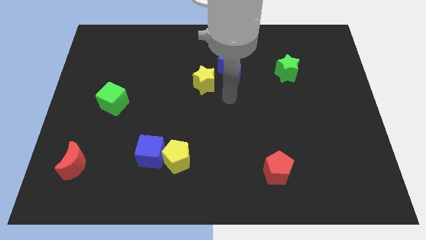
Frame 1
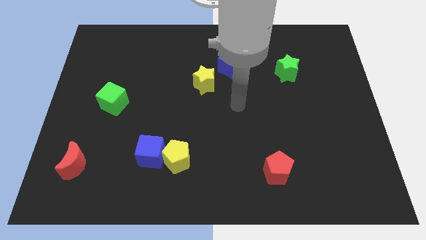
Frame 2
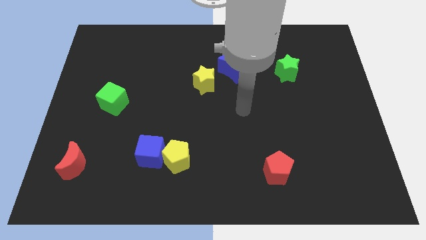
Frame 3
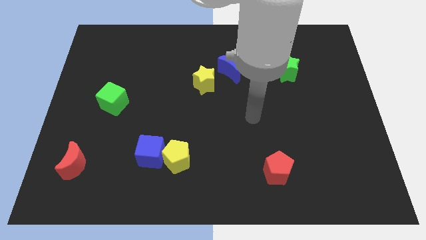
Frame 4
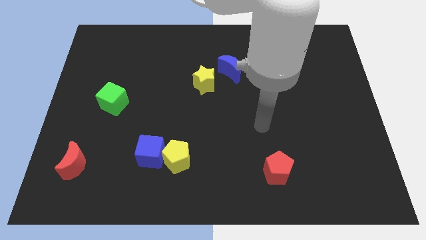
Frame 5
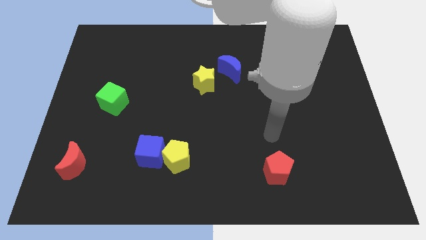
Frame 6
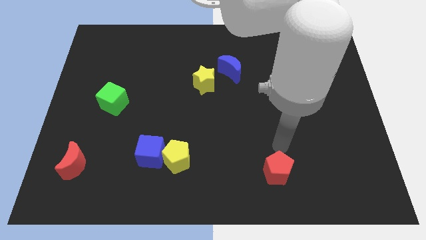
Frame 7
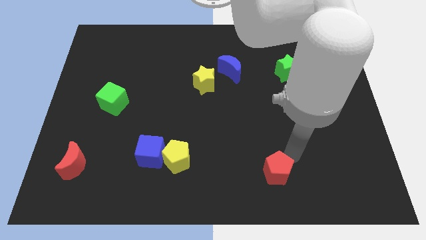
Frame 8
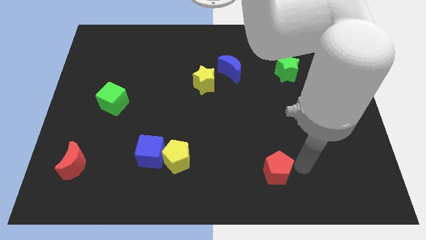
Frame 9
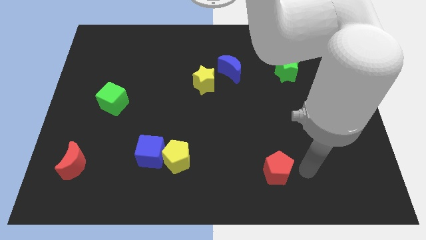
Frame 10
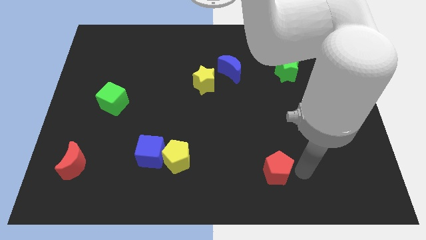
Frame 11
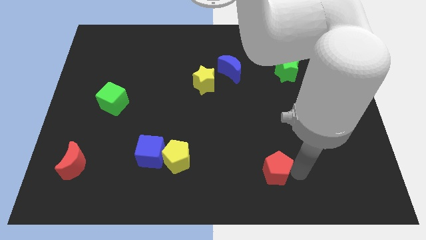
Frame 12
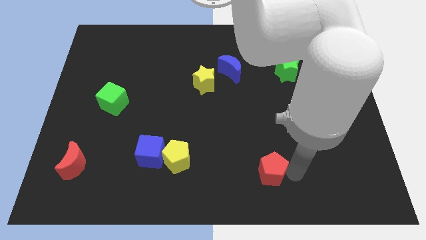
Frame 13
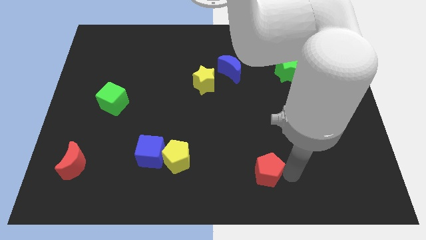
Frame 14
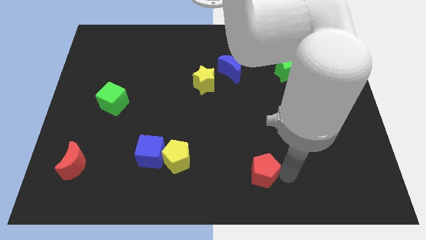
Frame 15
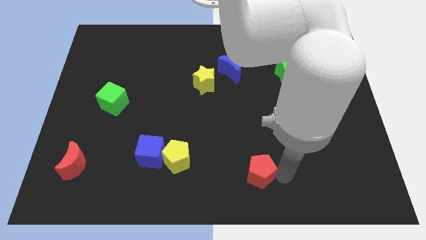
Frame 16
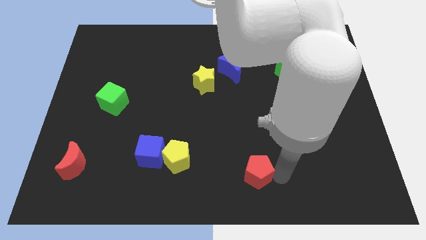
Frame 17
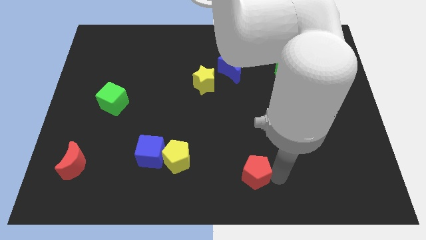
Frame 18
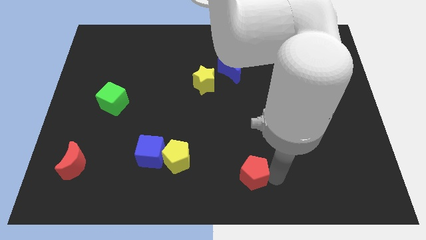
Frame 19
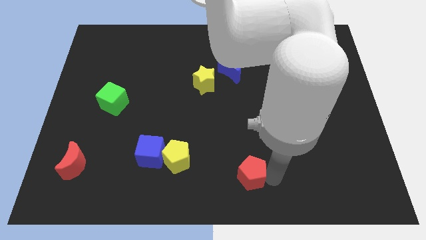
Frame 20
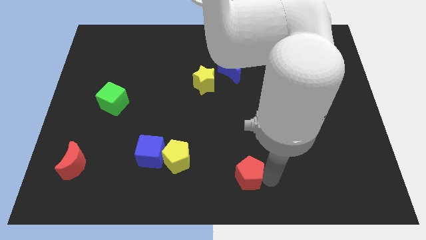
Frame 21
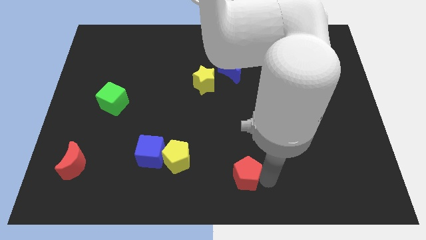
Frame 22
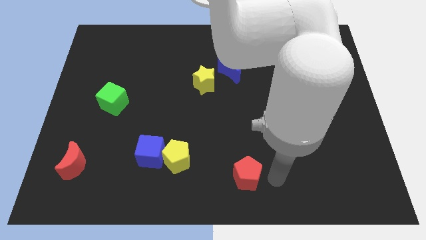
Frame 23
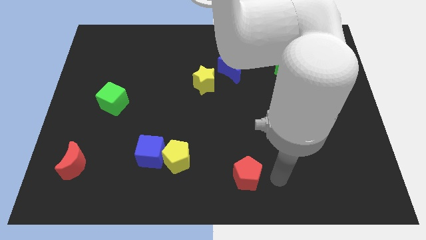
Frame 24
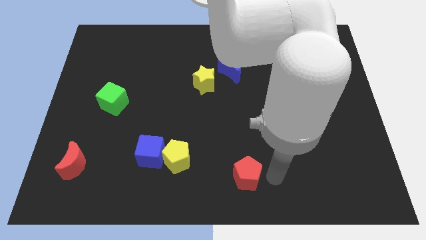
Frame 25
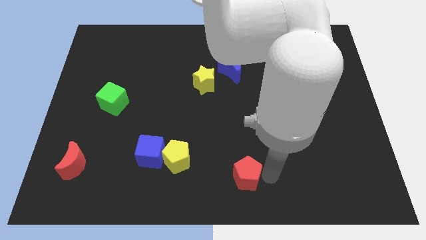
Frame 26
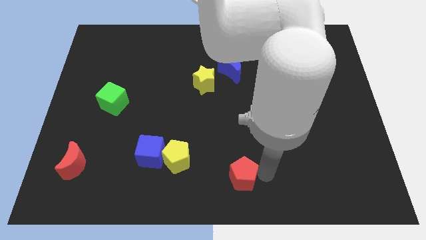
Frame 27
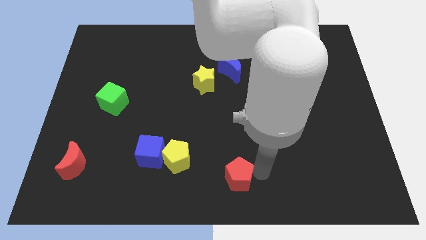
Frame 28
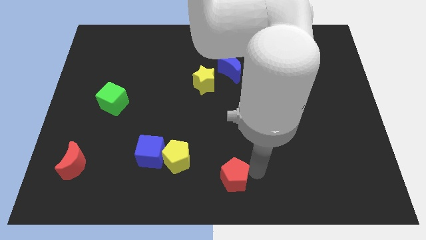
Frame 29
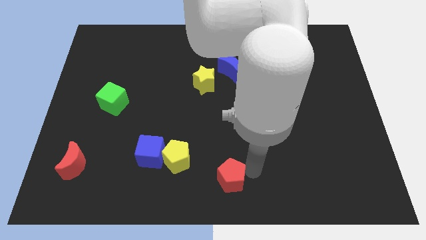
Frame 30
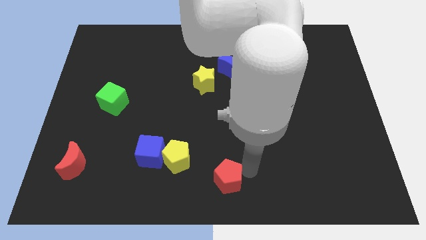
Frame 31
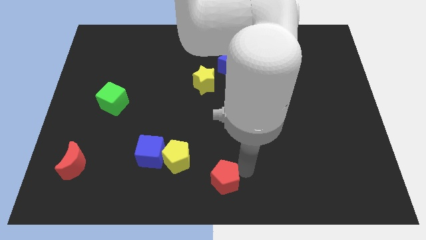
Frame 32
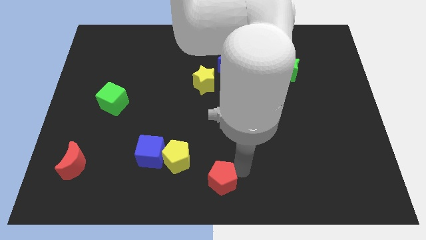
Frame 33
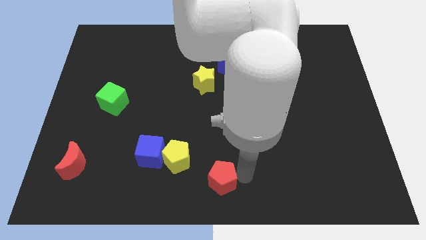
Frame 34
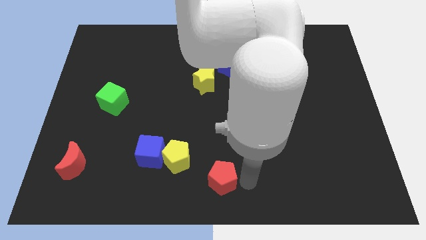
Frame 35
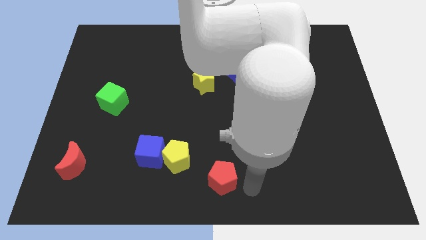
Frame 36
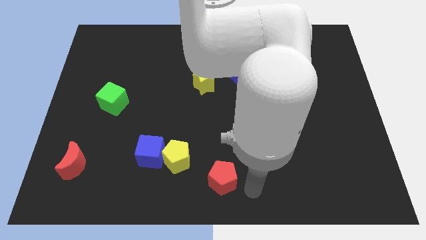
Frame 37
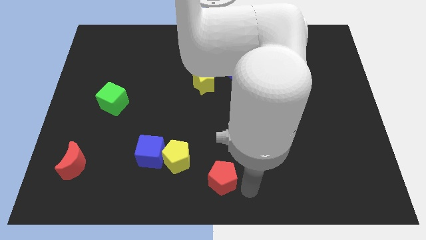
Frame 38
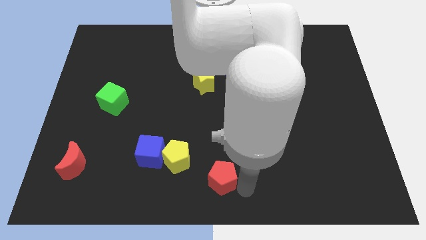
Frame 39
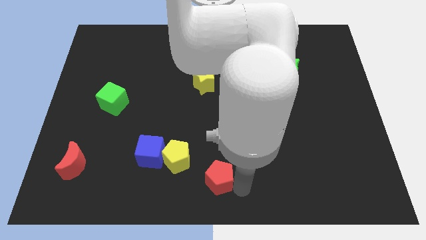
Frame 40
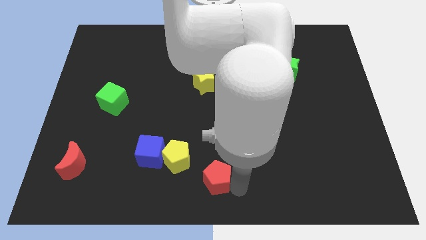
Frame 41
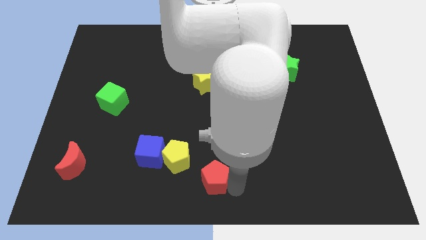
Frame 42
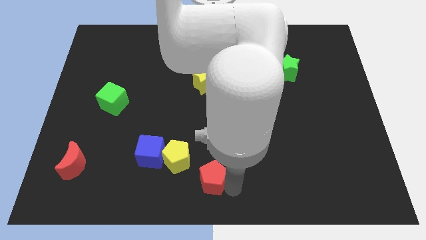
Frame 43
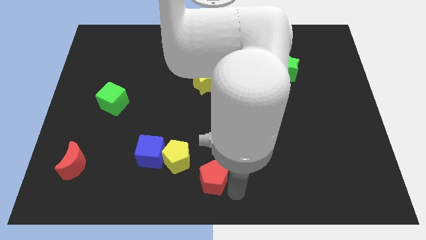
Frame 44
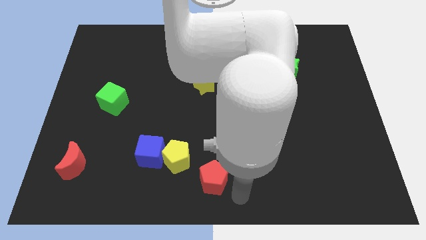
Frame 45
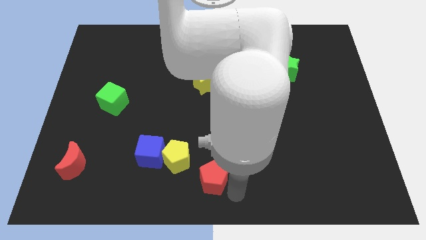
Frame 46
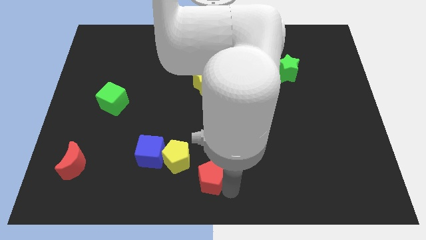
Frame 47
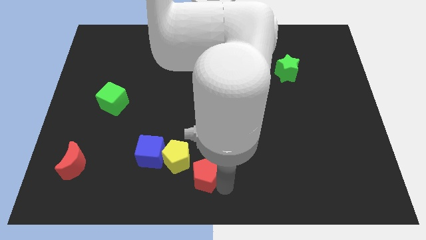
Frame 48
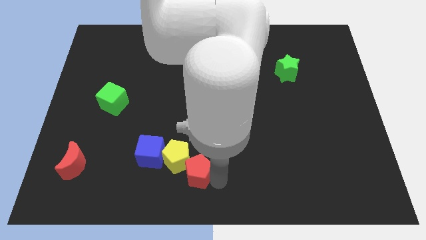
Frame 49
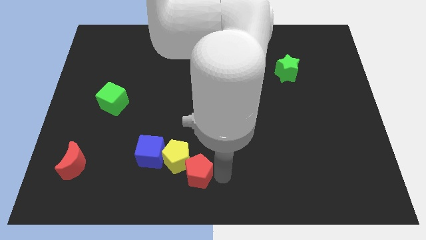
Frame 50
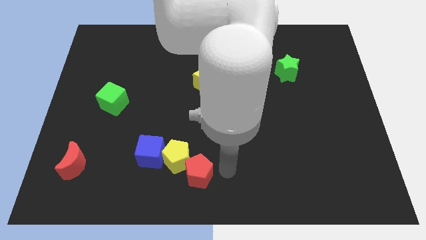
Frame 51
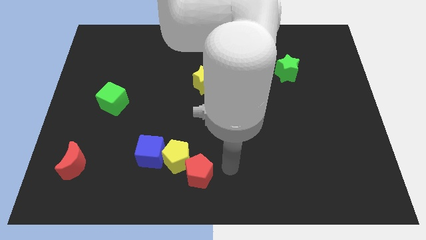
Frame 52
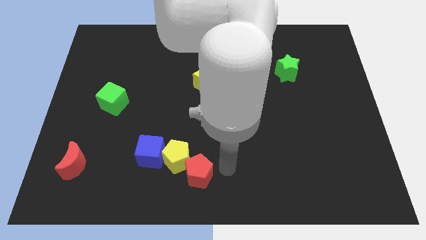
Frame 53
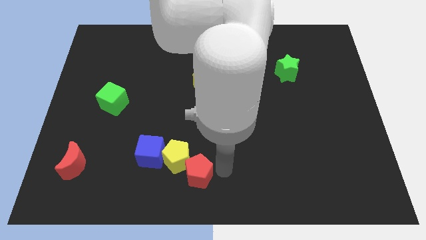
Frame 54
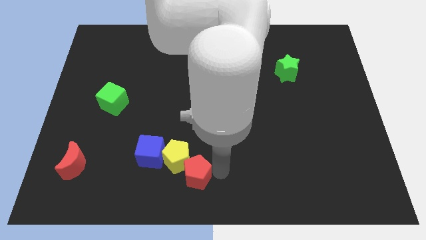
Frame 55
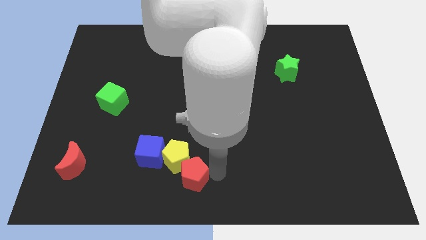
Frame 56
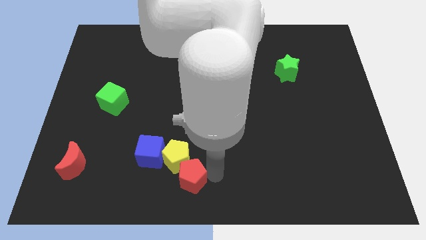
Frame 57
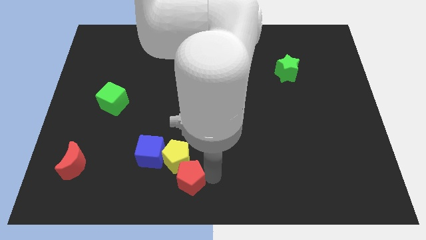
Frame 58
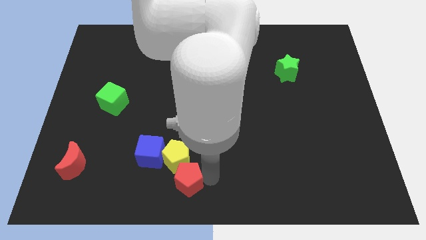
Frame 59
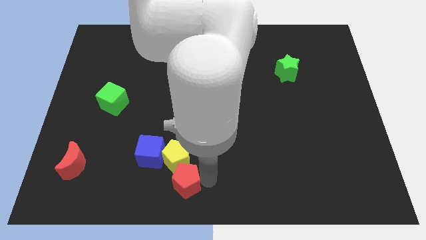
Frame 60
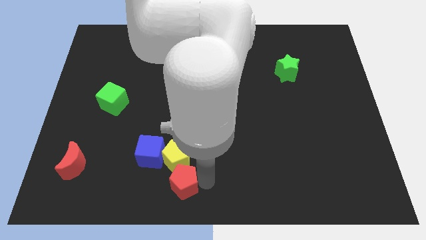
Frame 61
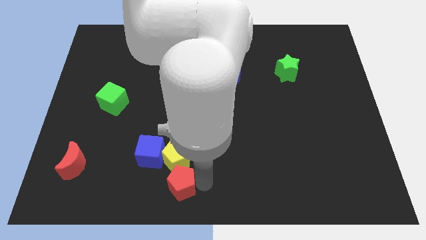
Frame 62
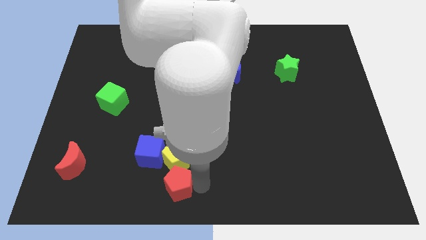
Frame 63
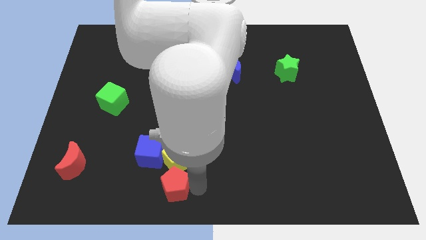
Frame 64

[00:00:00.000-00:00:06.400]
slide the red pentagon diagonally down and to the left of the yellow pentagon

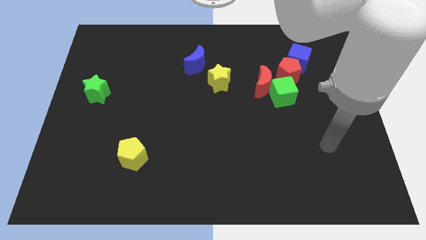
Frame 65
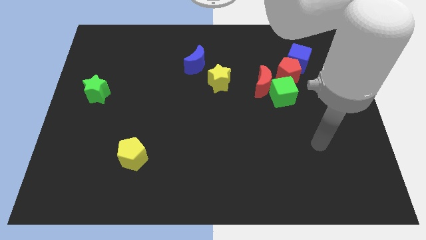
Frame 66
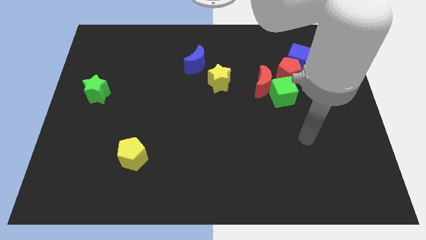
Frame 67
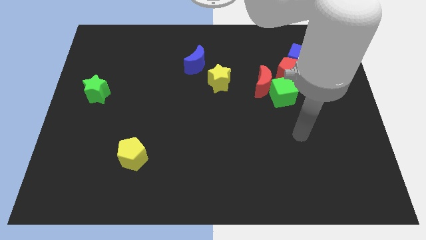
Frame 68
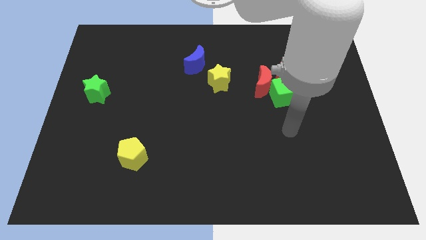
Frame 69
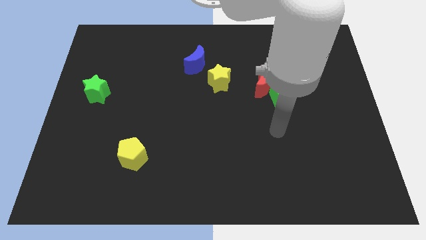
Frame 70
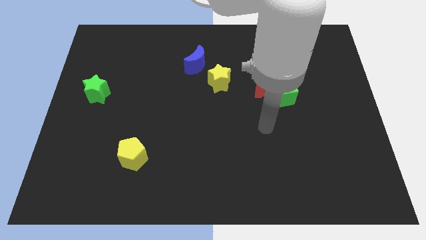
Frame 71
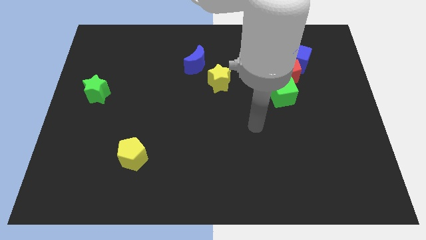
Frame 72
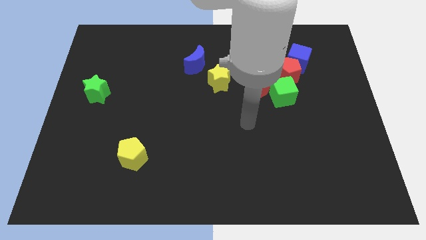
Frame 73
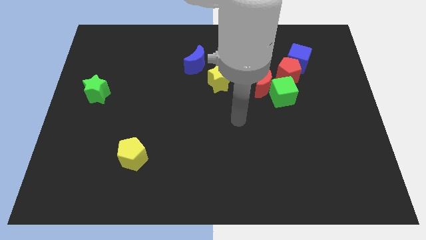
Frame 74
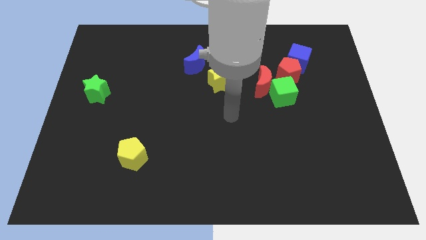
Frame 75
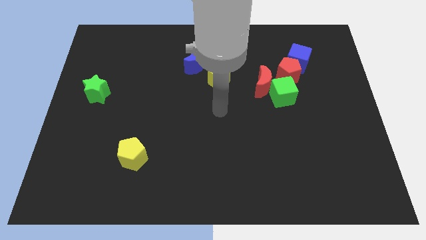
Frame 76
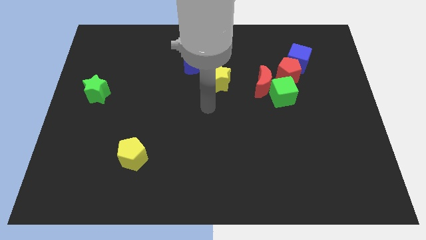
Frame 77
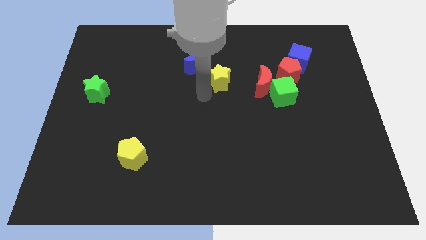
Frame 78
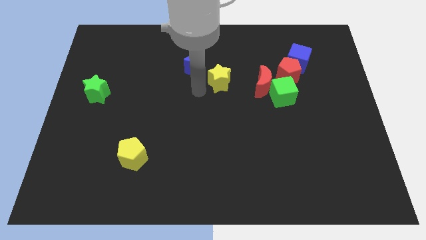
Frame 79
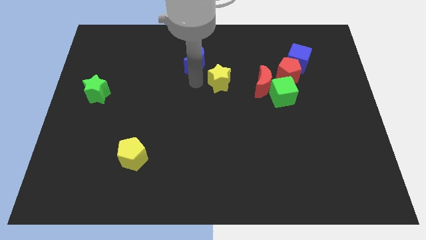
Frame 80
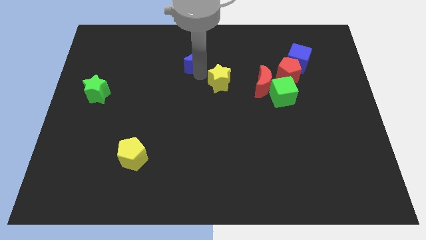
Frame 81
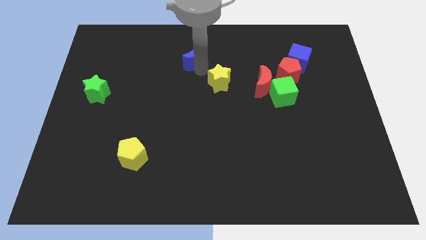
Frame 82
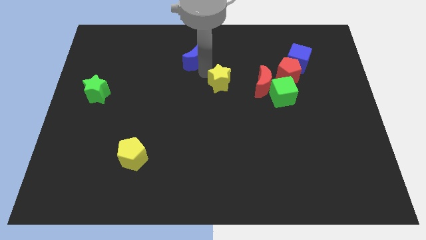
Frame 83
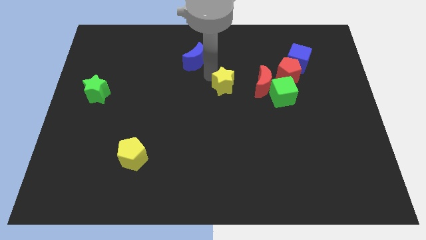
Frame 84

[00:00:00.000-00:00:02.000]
push the yellow star to the left side of the green cube
